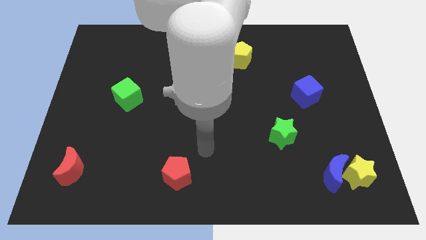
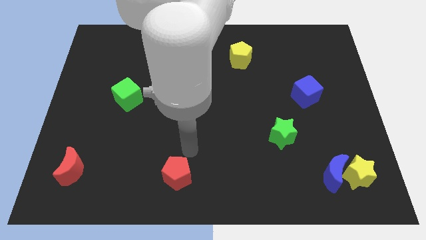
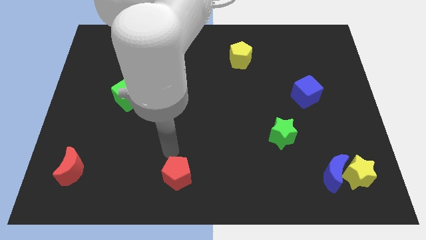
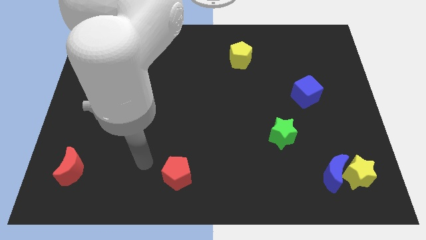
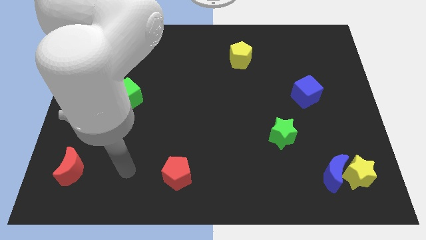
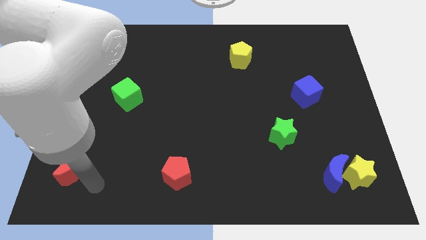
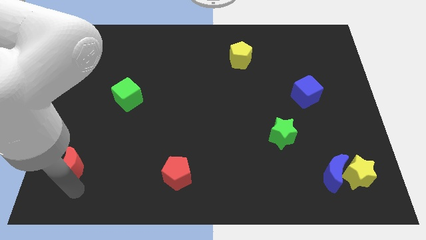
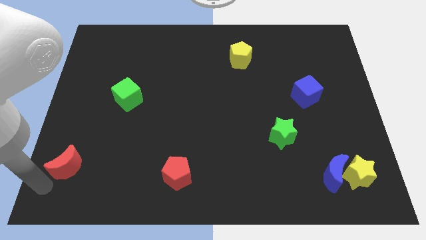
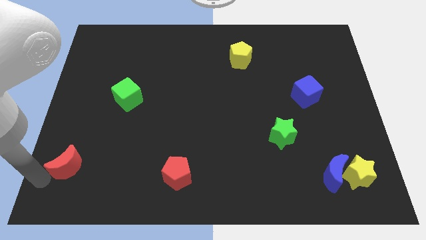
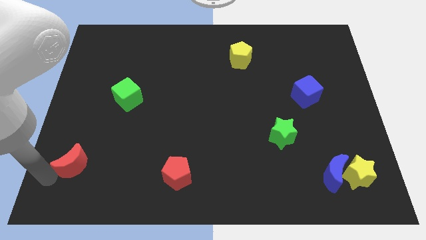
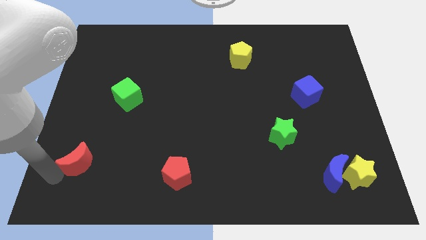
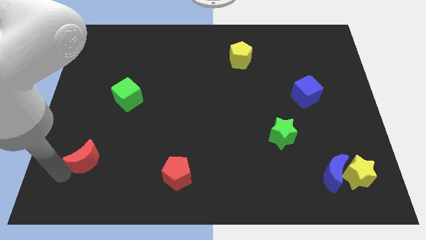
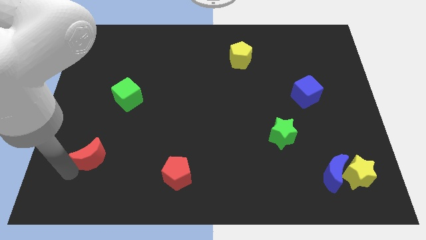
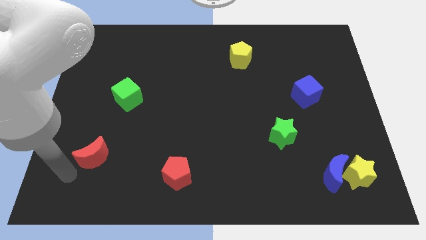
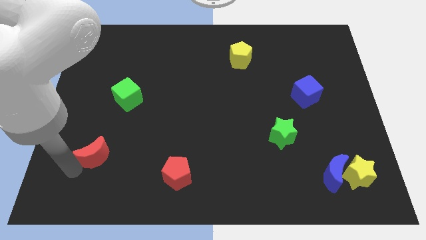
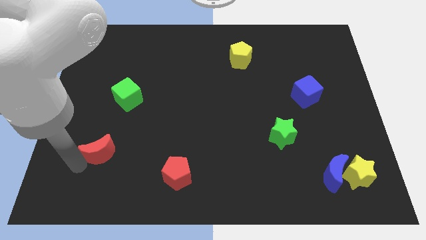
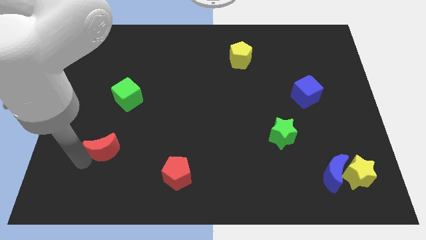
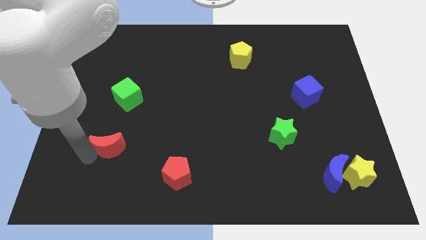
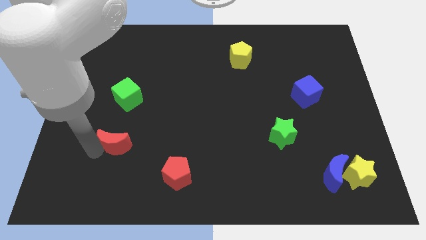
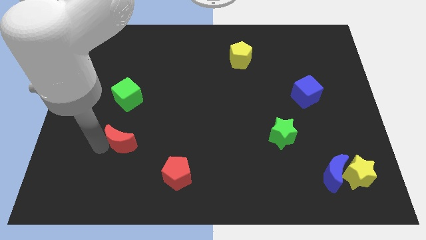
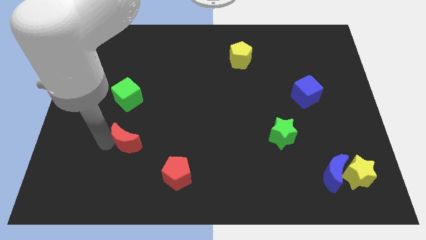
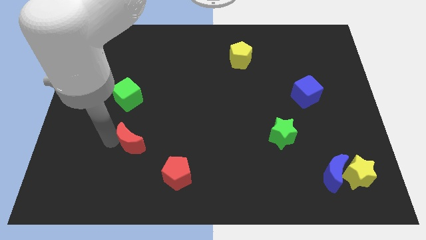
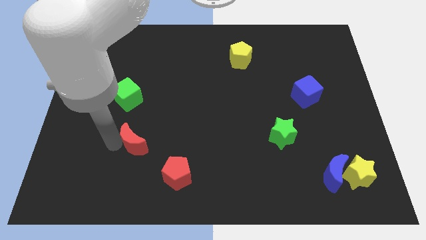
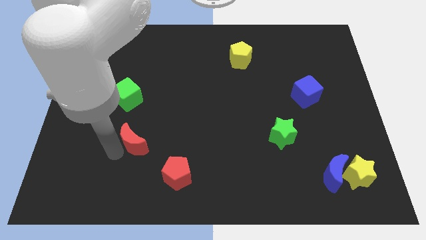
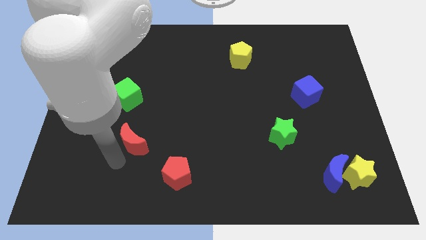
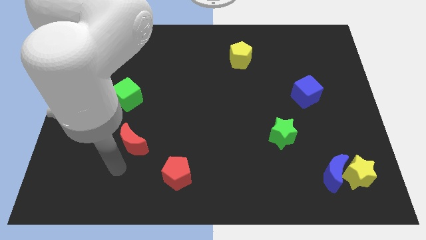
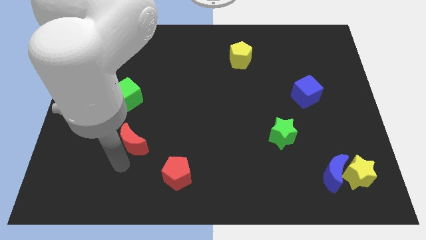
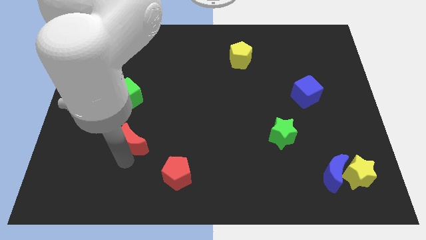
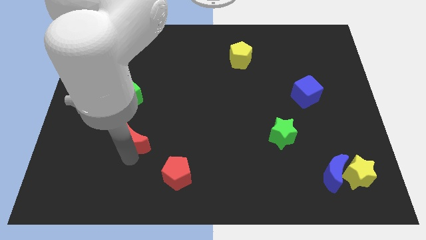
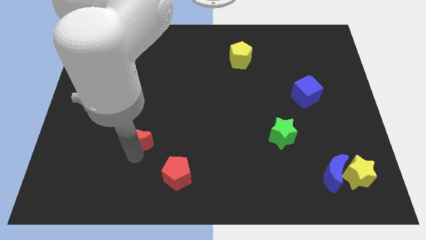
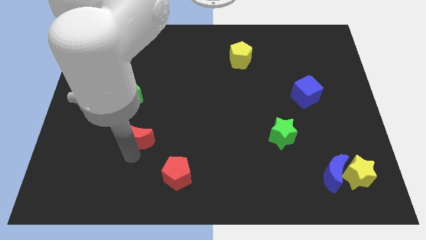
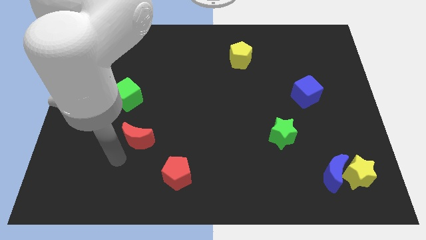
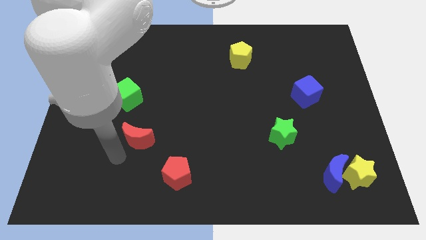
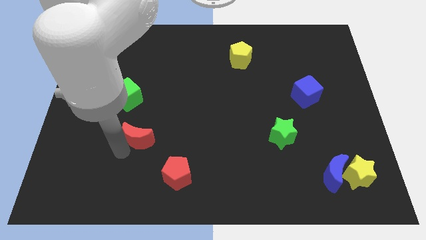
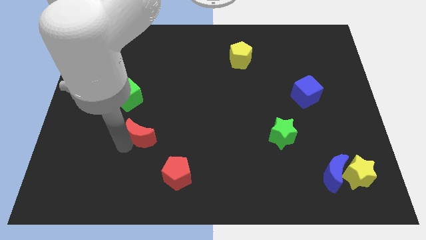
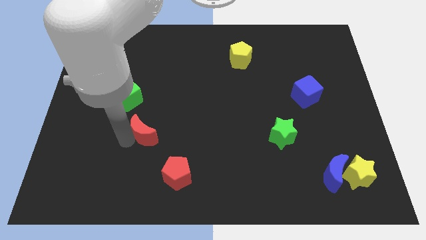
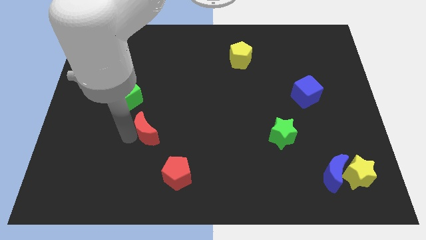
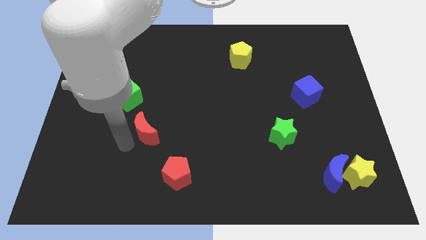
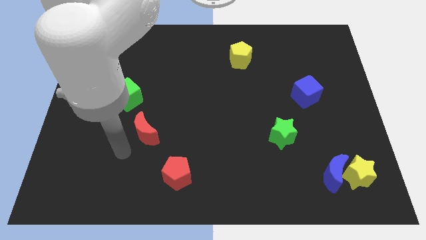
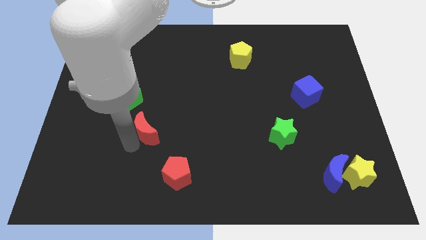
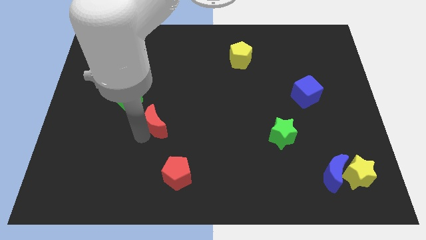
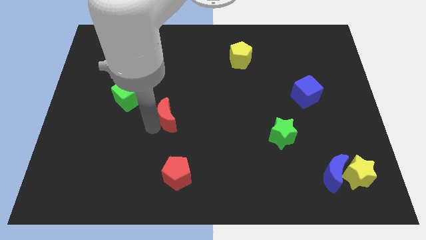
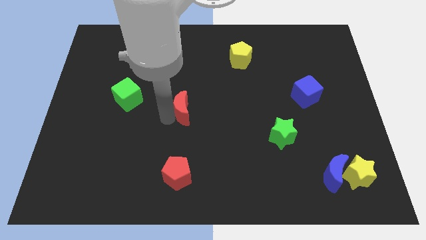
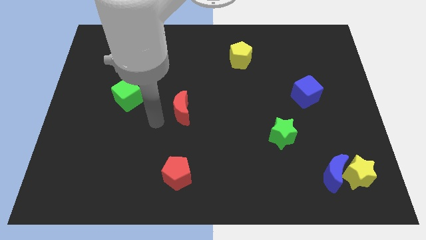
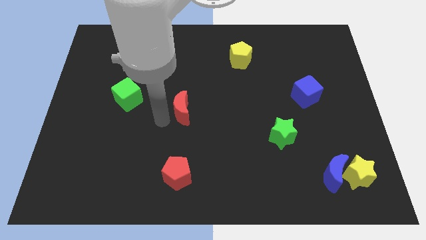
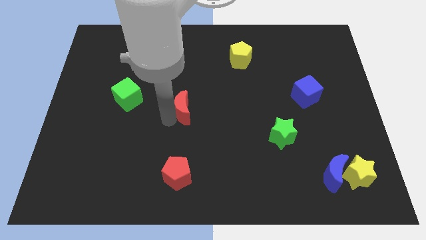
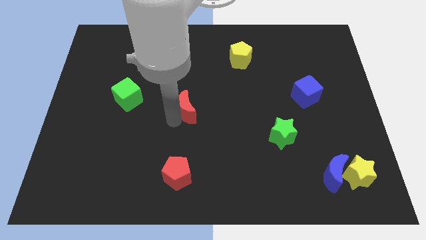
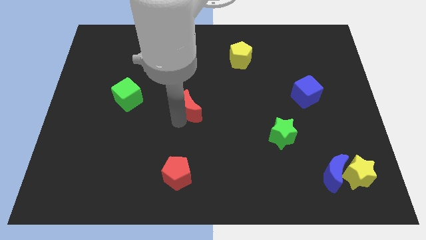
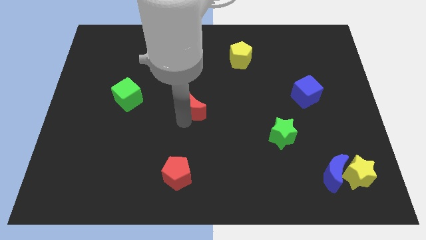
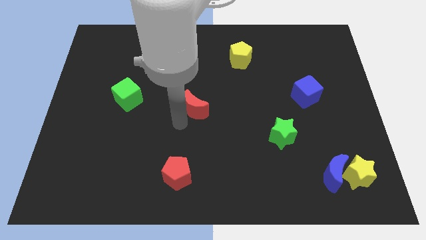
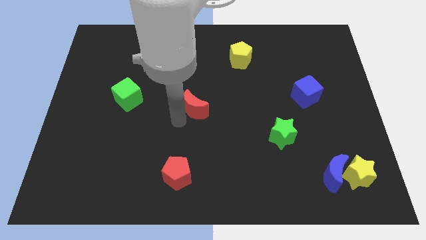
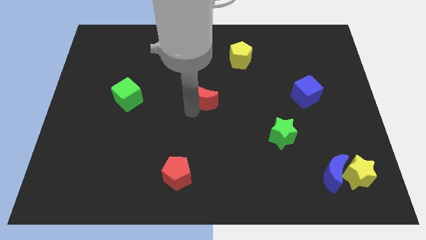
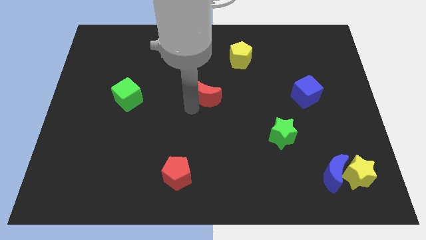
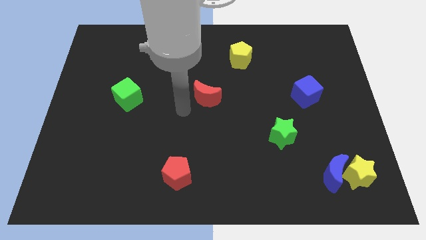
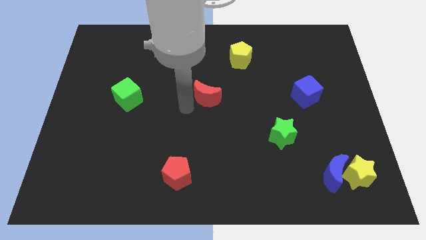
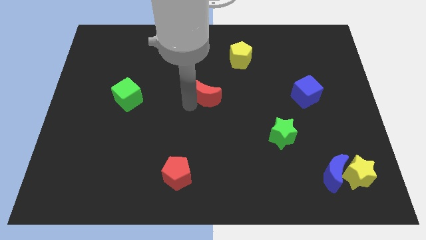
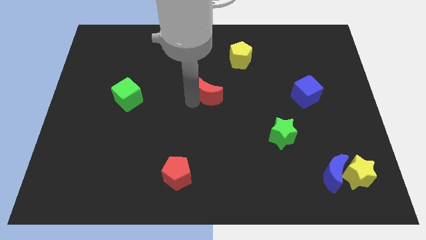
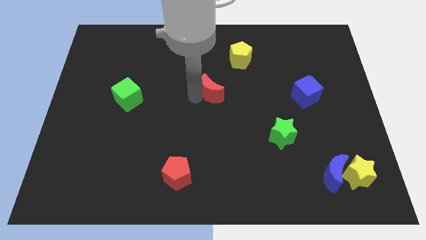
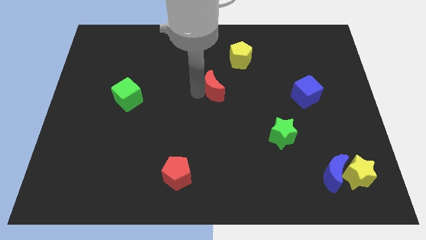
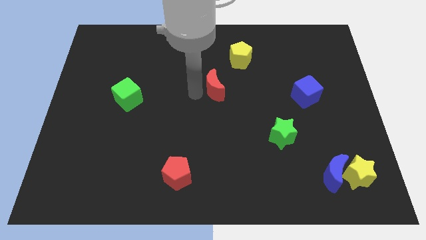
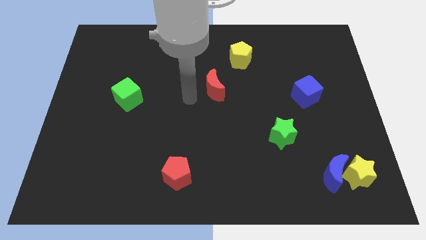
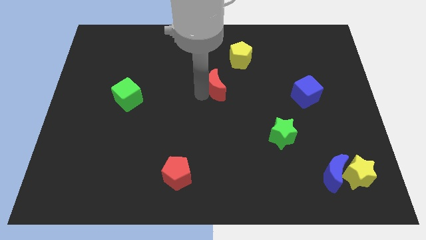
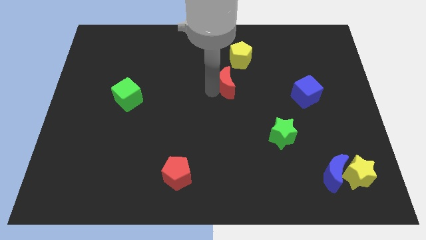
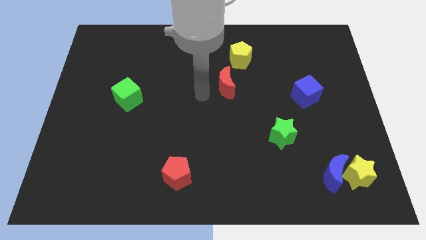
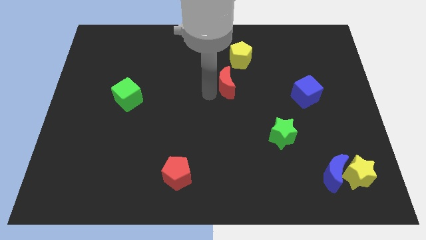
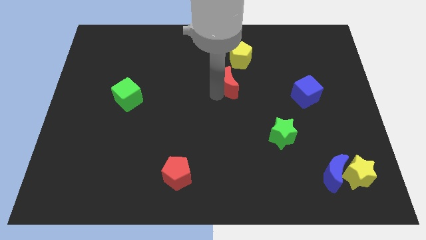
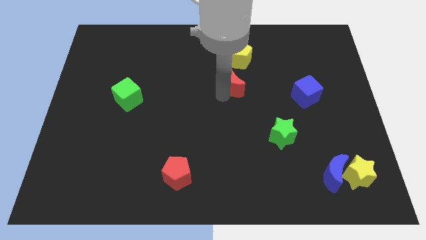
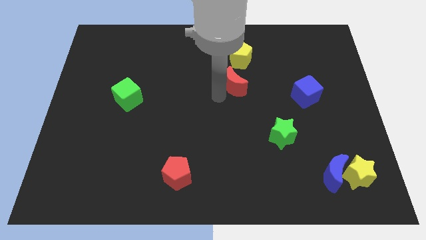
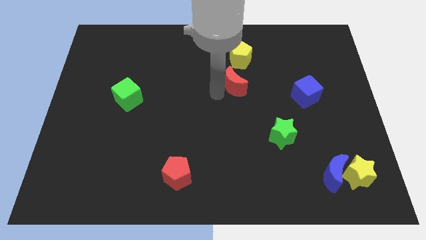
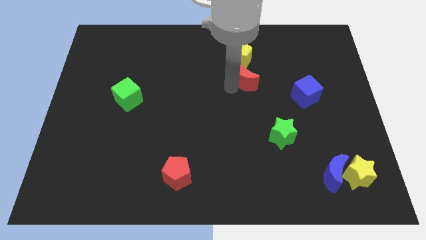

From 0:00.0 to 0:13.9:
move the red moon diagonally down and to the right of the yellow pentagon

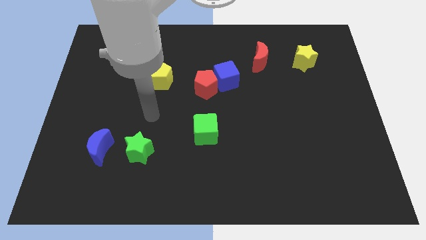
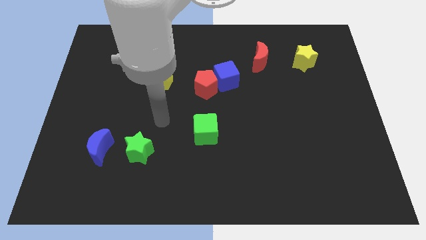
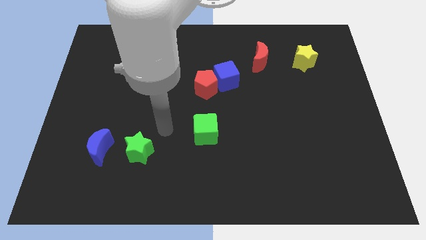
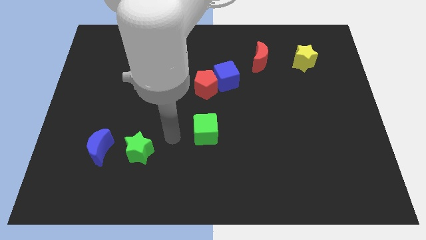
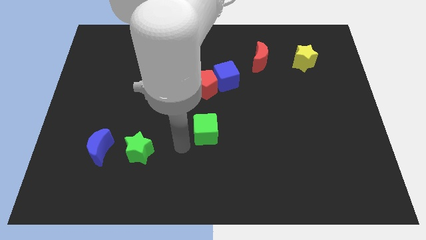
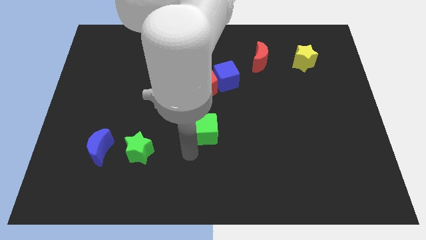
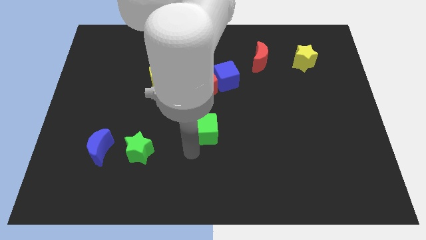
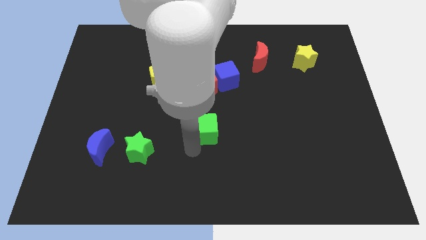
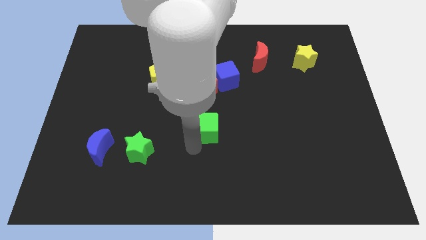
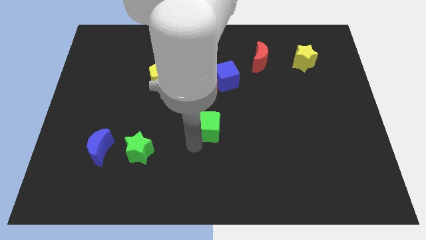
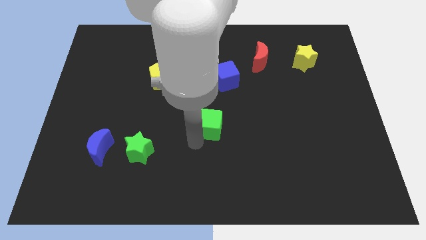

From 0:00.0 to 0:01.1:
put the green cube below the blue cube

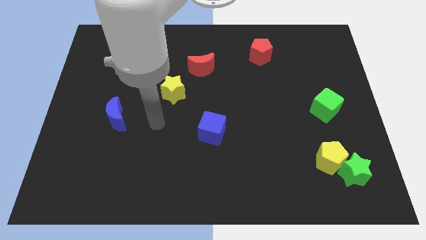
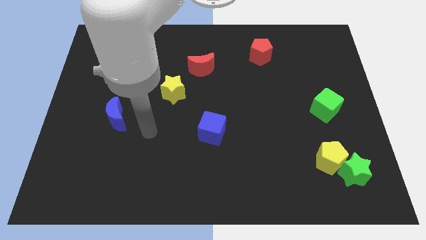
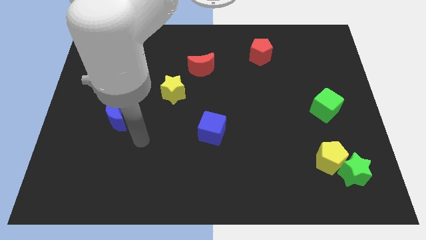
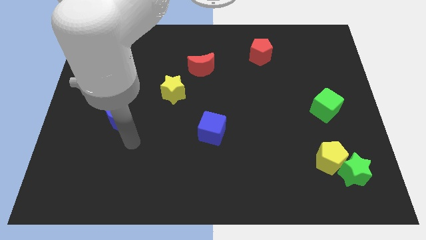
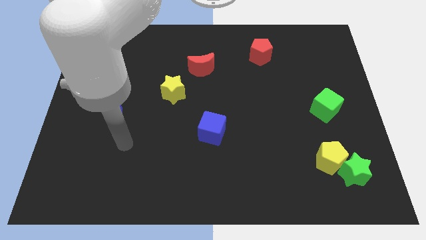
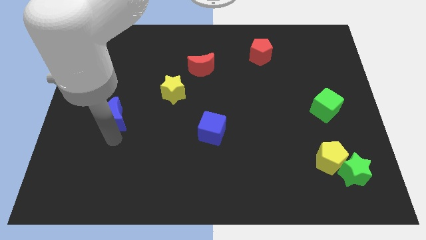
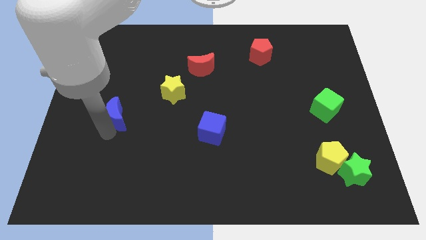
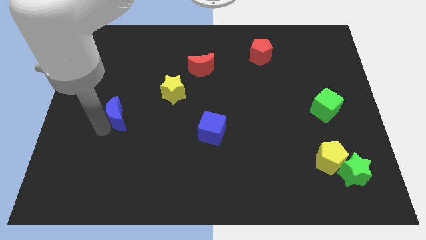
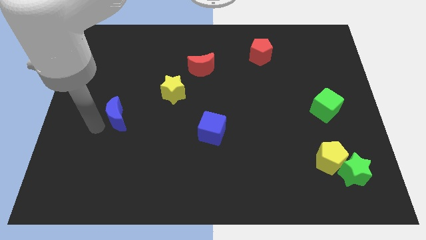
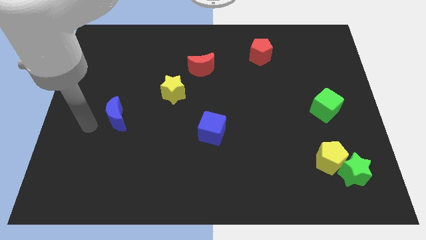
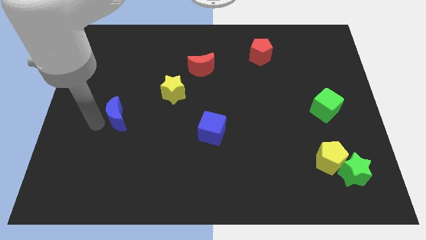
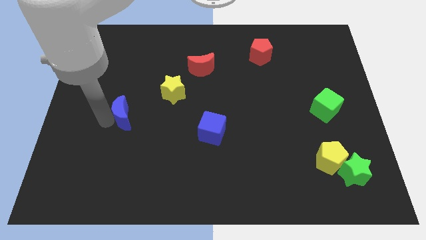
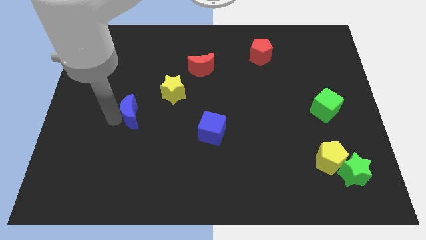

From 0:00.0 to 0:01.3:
push the blue moon to the bottom left side of the yellow star
